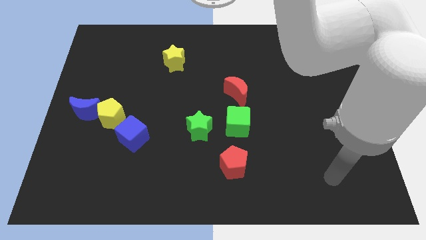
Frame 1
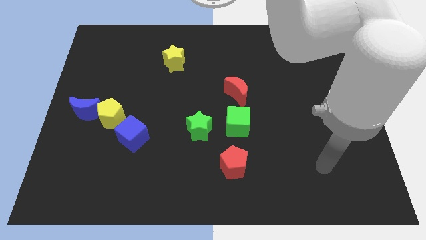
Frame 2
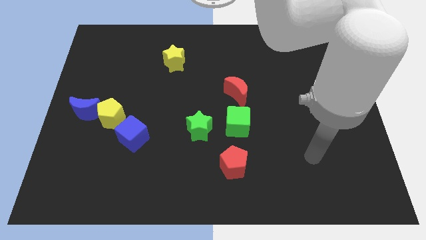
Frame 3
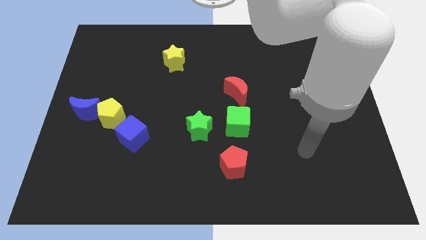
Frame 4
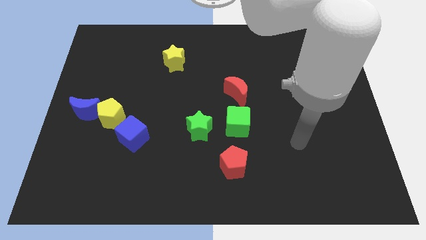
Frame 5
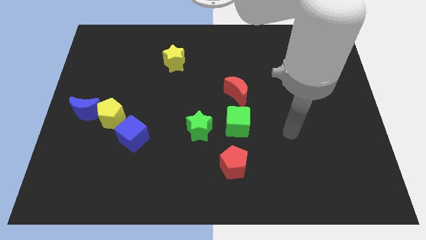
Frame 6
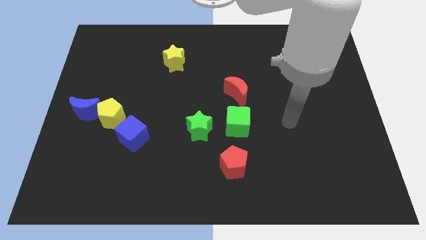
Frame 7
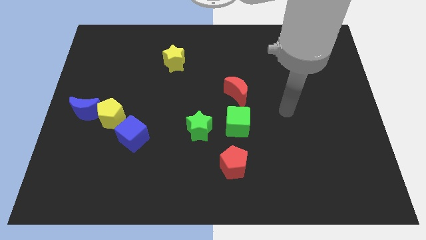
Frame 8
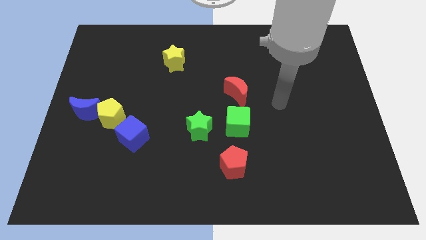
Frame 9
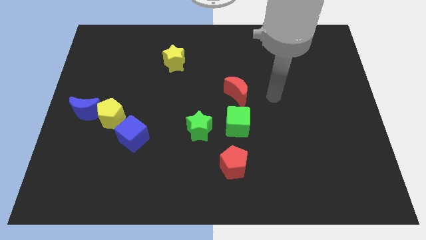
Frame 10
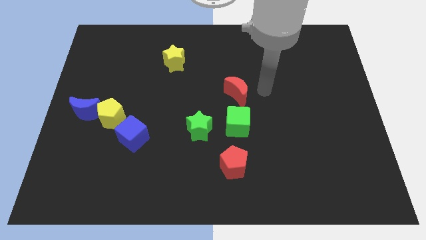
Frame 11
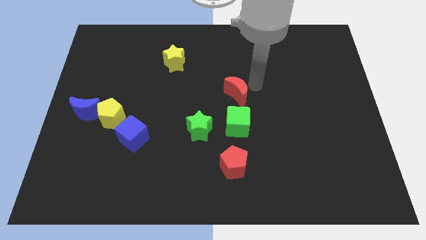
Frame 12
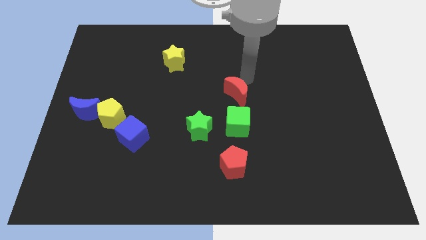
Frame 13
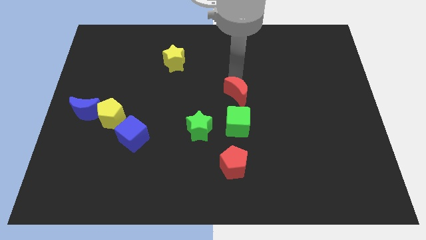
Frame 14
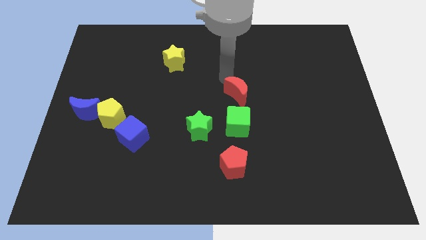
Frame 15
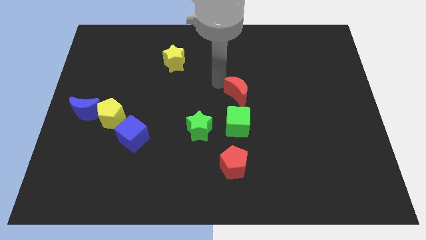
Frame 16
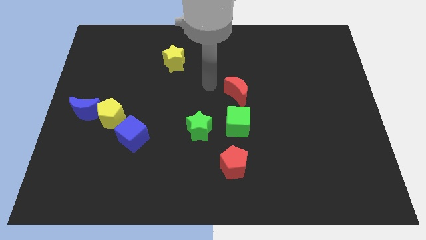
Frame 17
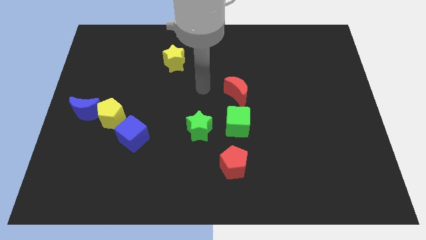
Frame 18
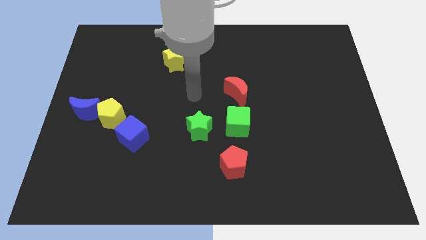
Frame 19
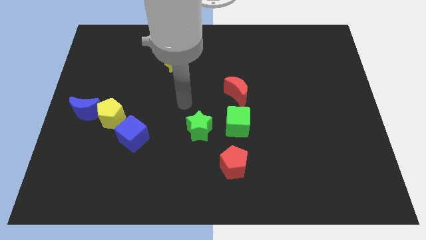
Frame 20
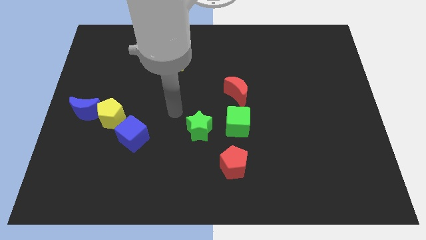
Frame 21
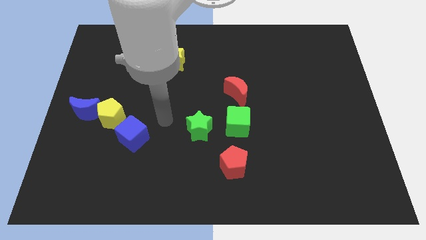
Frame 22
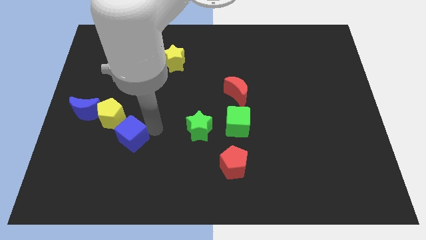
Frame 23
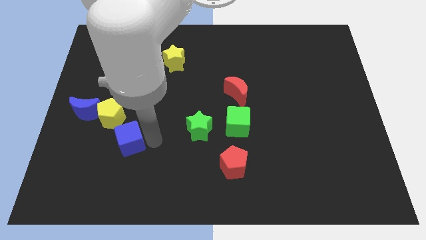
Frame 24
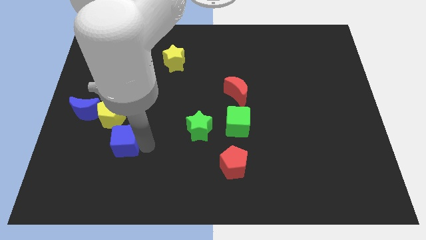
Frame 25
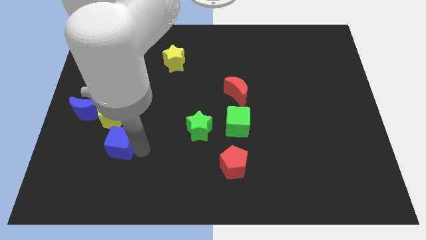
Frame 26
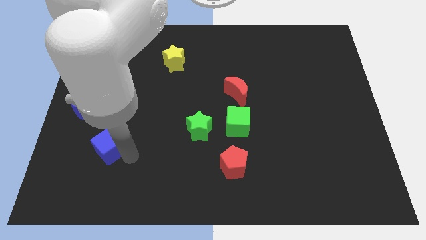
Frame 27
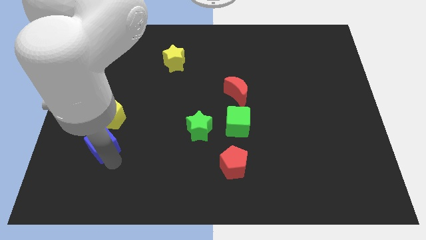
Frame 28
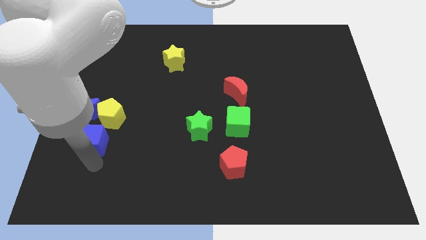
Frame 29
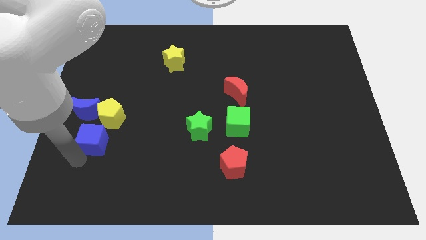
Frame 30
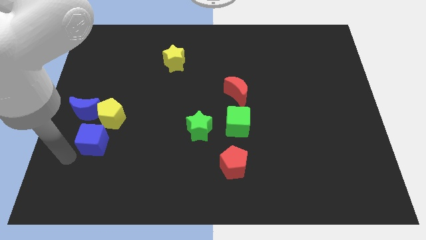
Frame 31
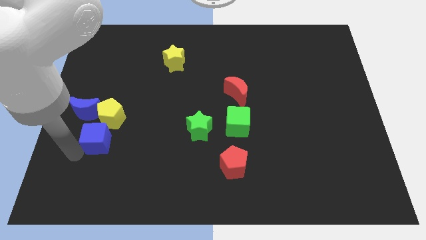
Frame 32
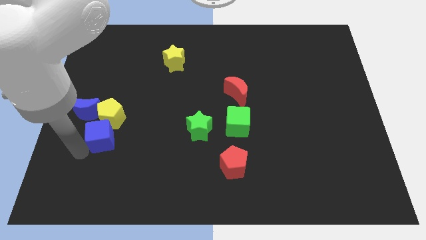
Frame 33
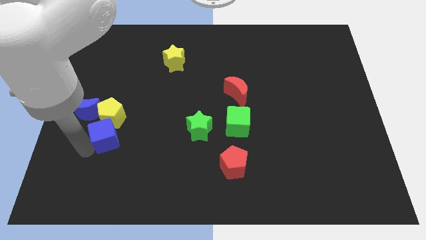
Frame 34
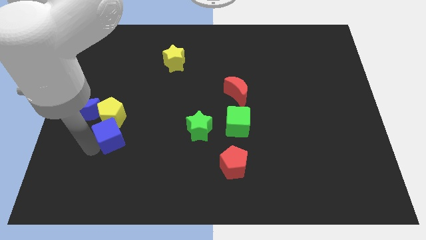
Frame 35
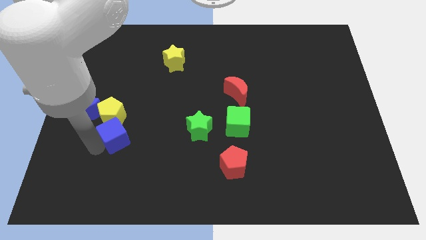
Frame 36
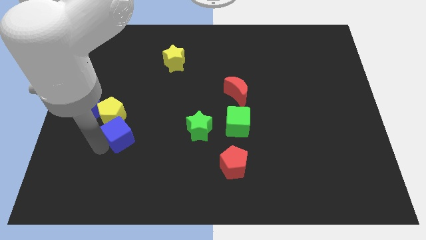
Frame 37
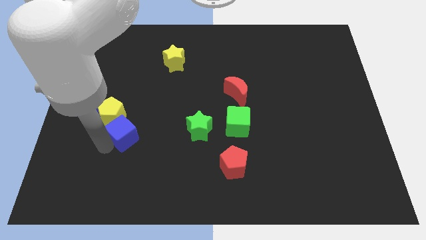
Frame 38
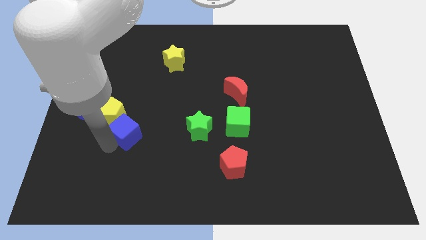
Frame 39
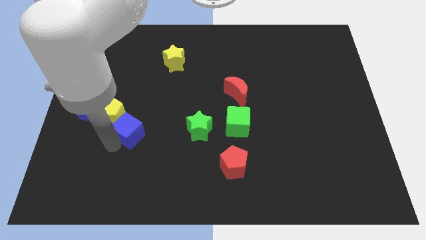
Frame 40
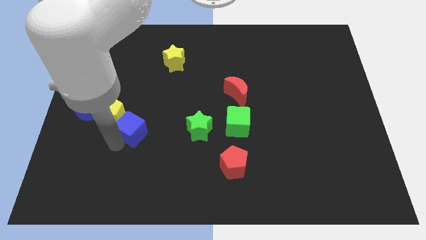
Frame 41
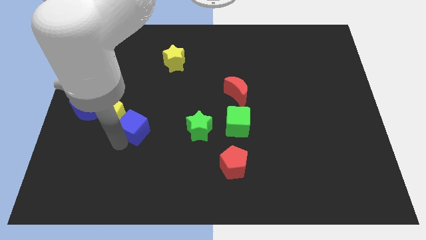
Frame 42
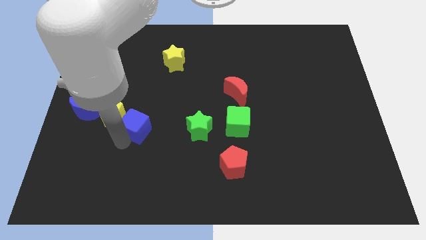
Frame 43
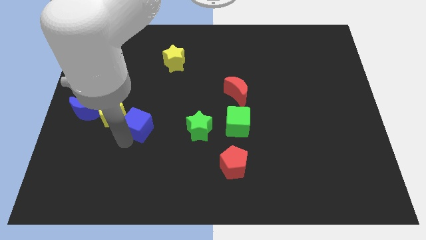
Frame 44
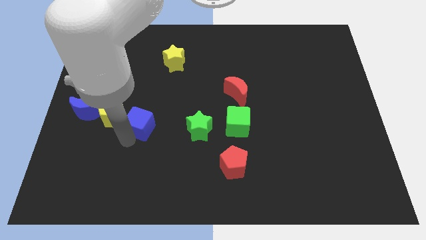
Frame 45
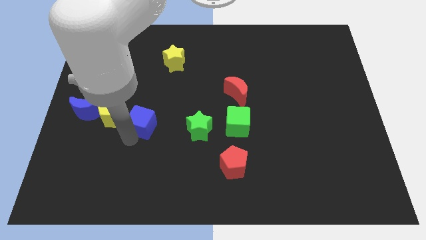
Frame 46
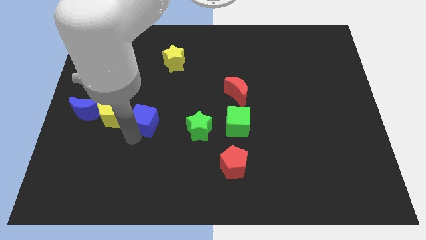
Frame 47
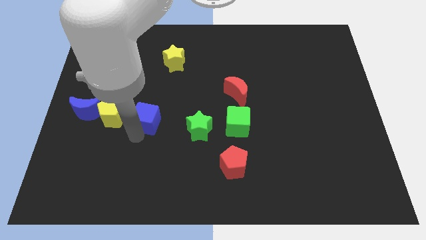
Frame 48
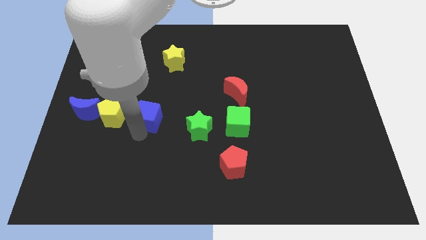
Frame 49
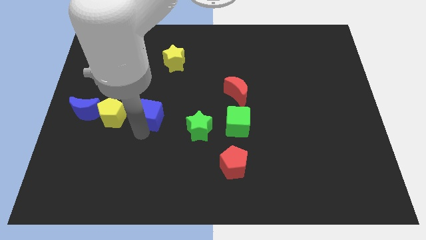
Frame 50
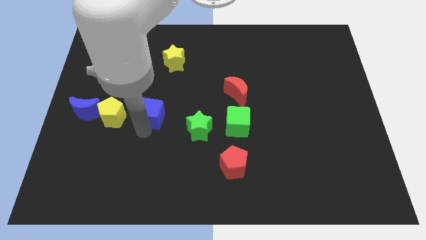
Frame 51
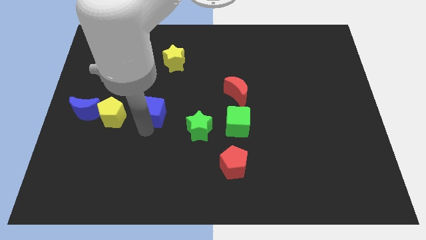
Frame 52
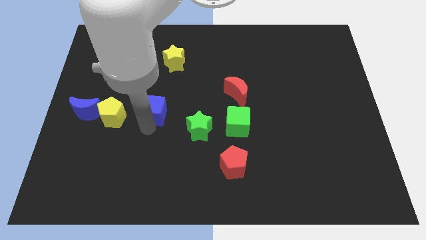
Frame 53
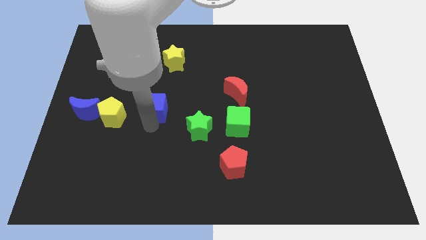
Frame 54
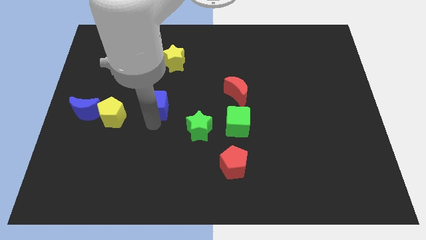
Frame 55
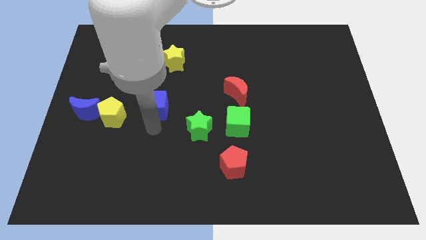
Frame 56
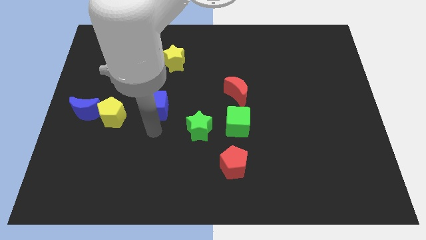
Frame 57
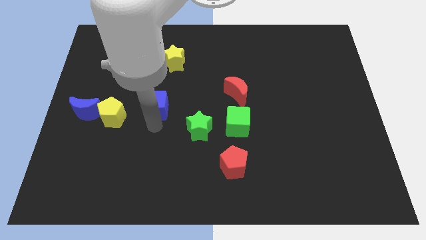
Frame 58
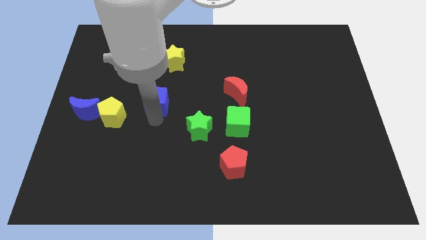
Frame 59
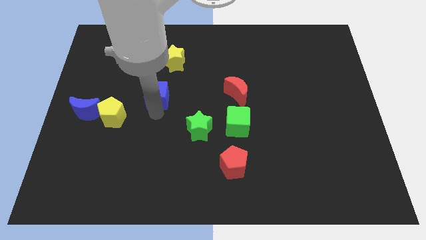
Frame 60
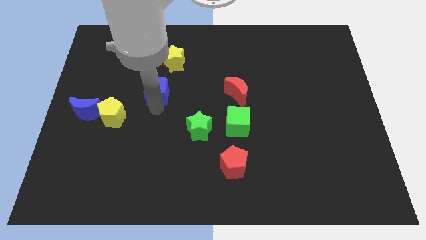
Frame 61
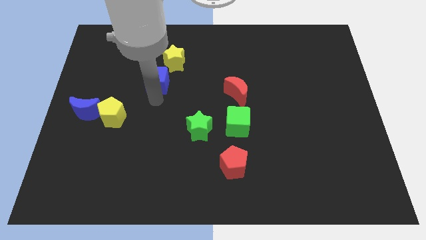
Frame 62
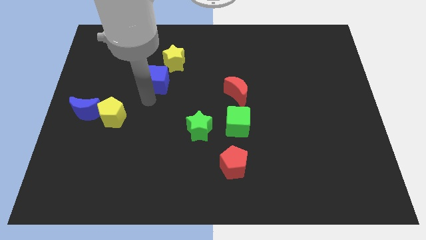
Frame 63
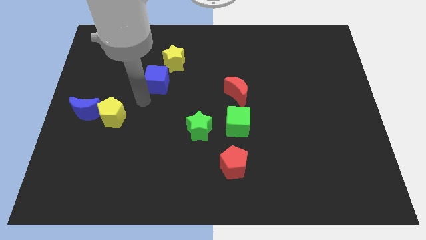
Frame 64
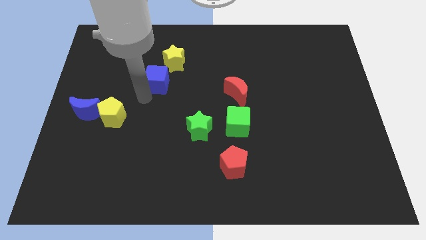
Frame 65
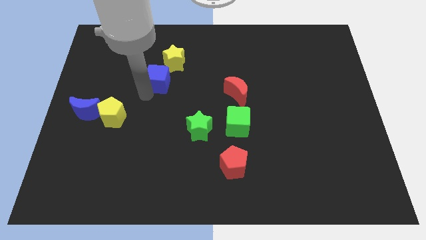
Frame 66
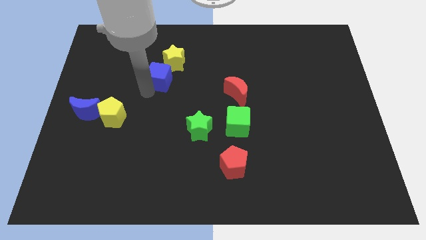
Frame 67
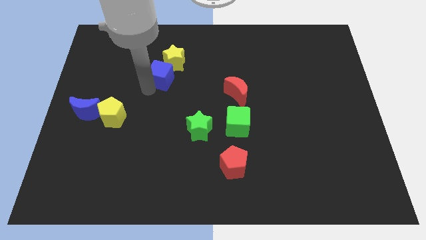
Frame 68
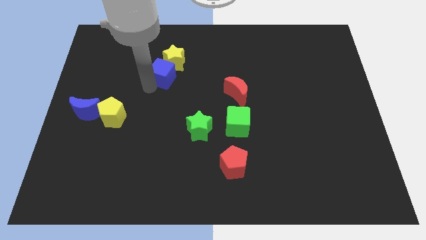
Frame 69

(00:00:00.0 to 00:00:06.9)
push the blue cube close to the yellow star
